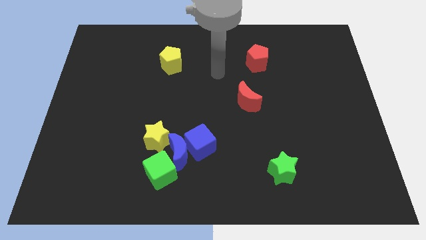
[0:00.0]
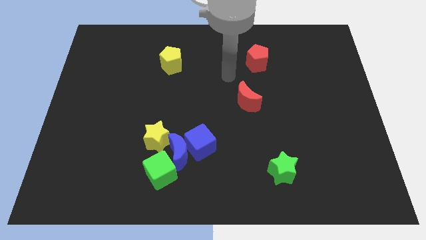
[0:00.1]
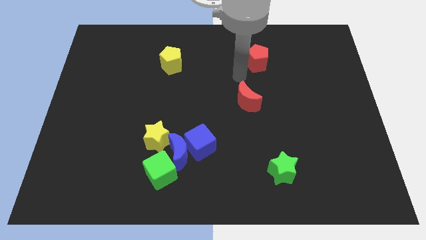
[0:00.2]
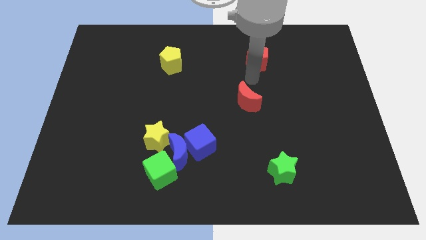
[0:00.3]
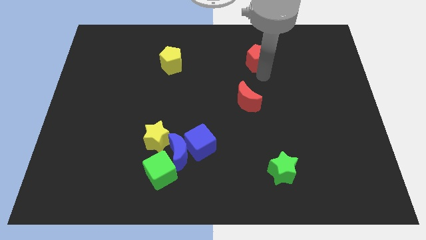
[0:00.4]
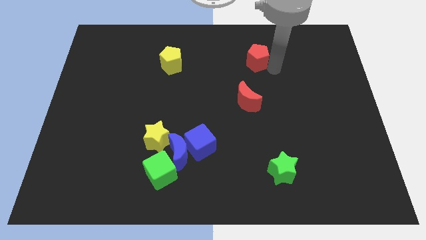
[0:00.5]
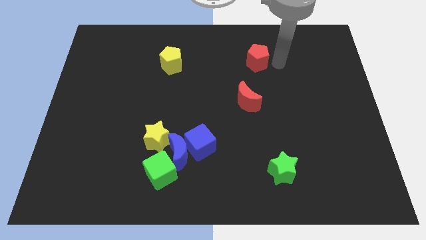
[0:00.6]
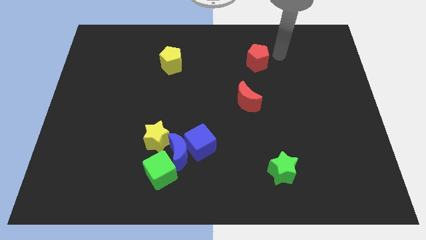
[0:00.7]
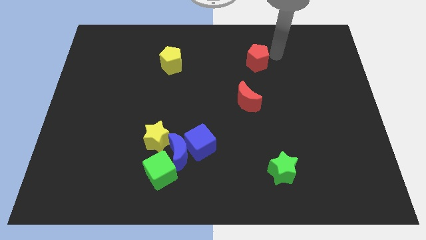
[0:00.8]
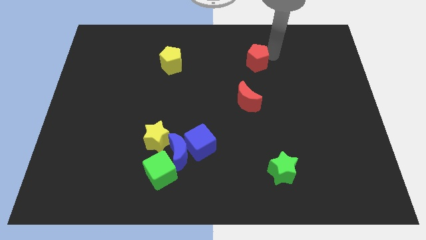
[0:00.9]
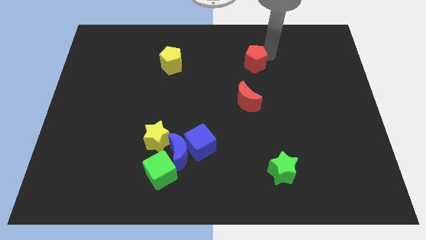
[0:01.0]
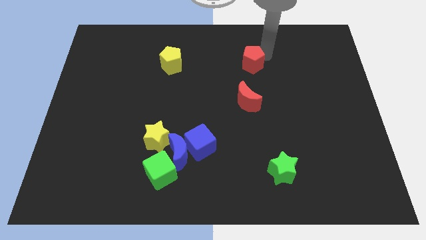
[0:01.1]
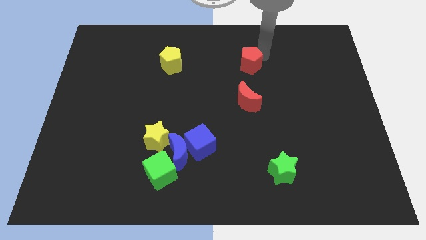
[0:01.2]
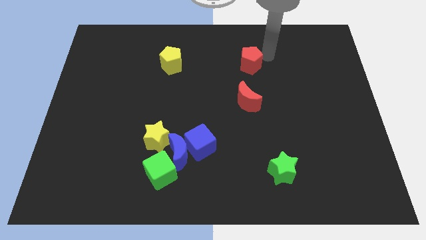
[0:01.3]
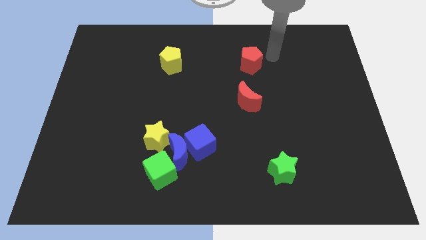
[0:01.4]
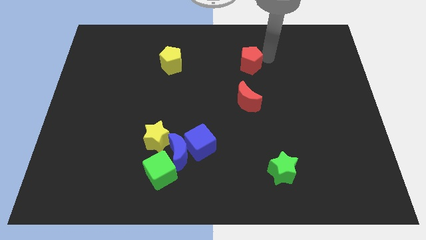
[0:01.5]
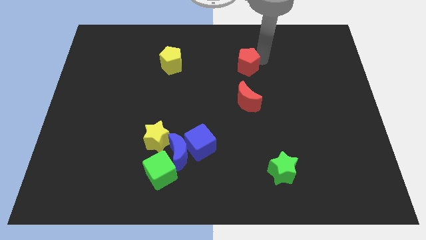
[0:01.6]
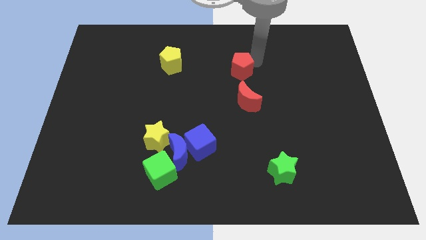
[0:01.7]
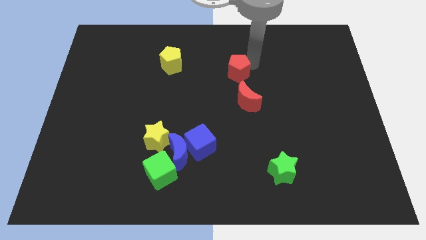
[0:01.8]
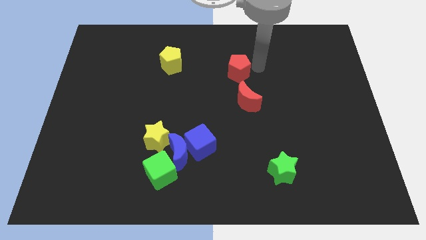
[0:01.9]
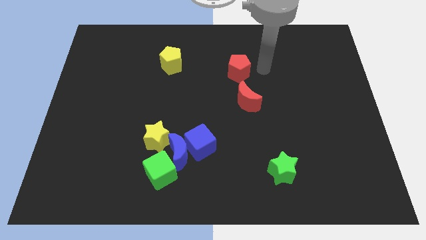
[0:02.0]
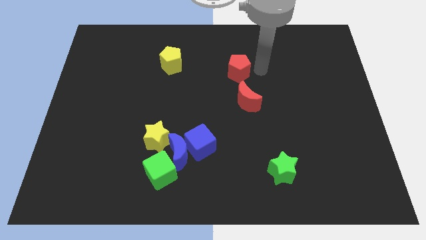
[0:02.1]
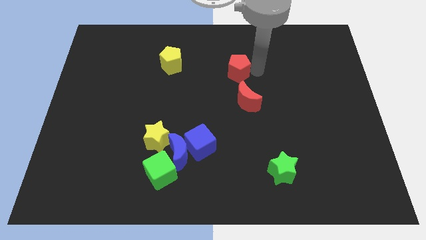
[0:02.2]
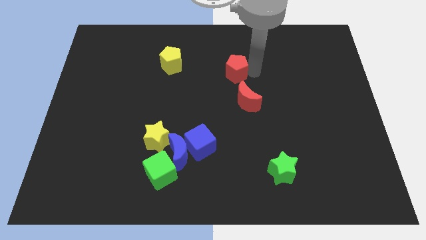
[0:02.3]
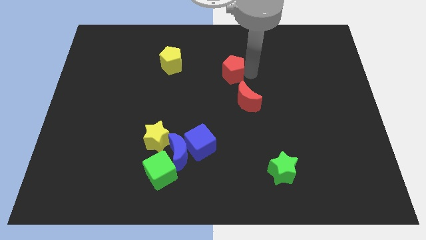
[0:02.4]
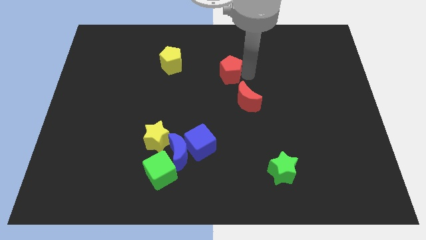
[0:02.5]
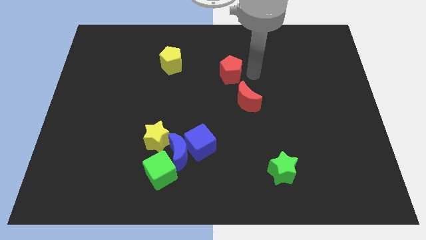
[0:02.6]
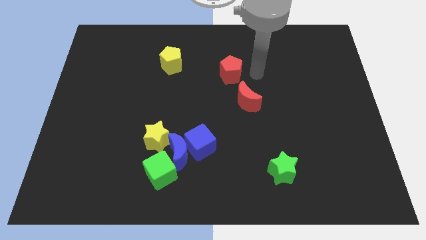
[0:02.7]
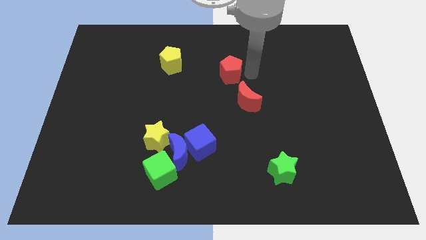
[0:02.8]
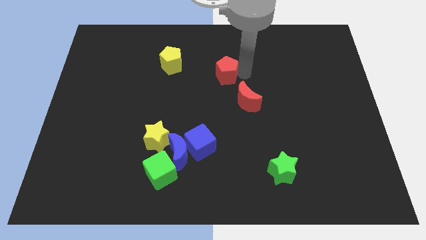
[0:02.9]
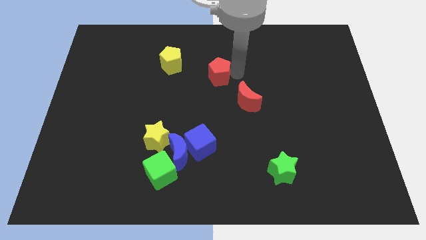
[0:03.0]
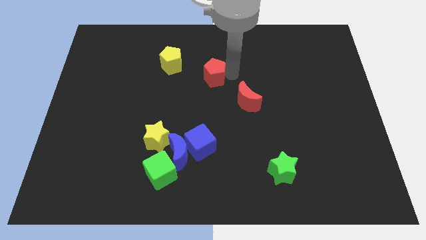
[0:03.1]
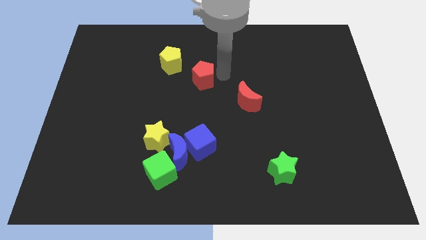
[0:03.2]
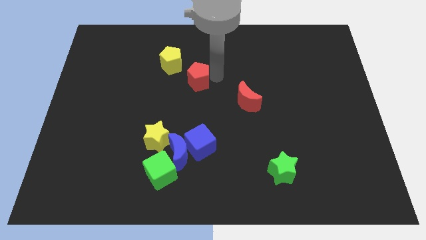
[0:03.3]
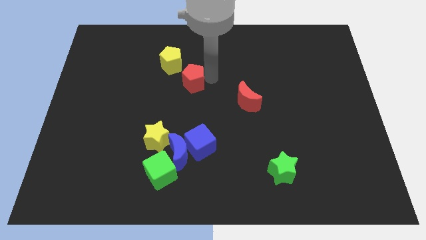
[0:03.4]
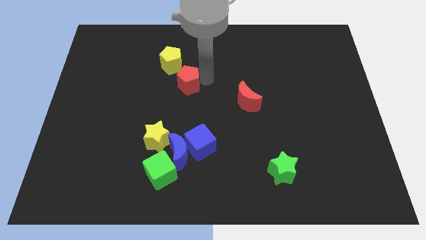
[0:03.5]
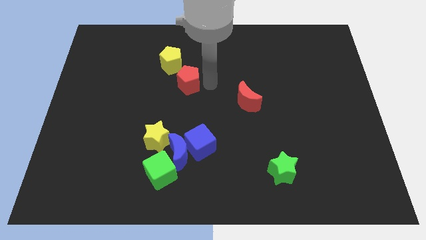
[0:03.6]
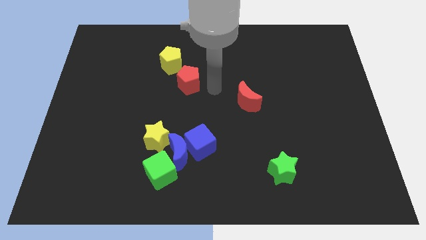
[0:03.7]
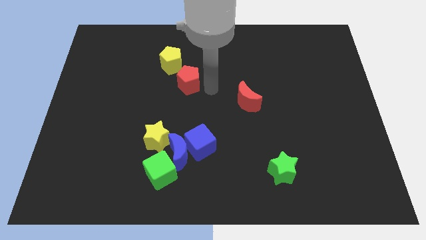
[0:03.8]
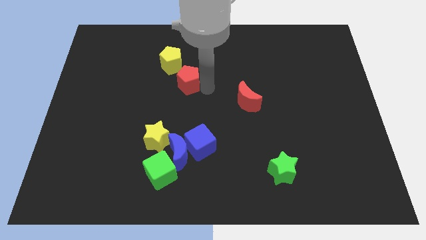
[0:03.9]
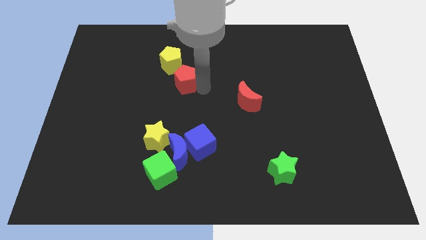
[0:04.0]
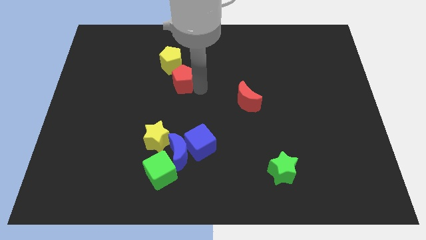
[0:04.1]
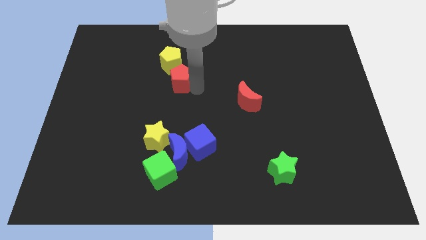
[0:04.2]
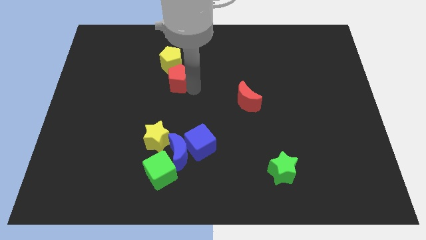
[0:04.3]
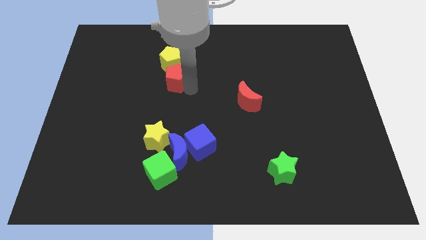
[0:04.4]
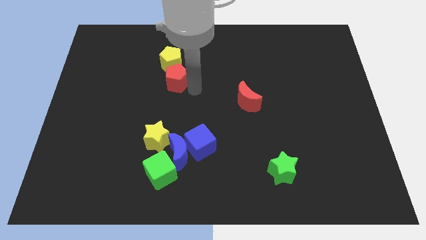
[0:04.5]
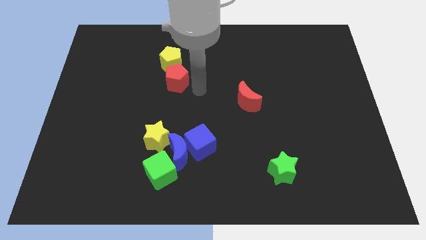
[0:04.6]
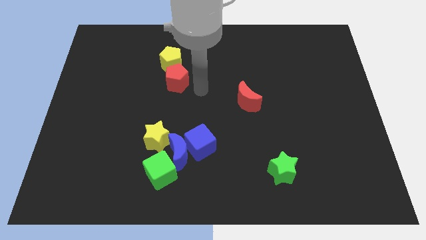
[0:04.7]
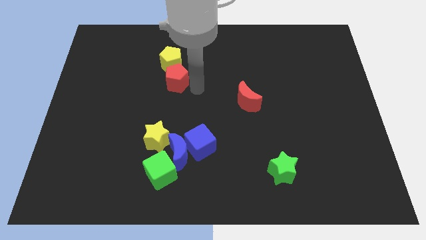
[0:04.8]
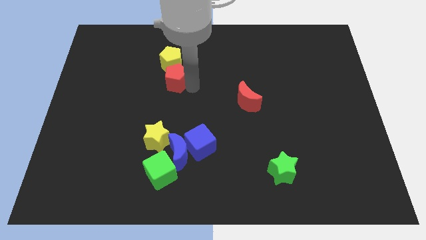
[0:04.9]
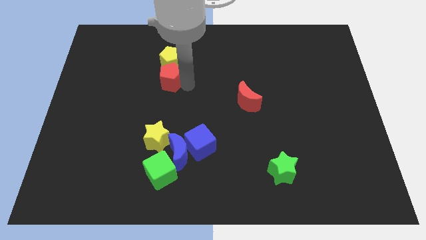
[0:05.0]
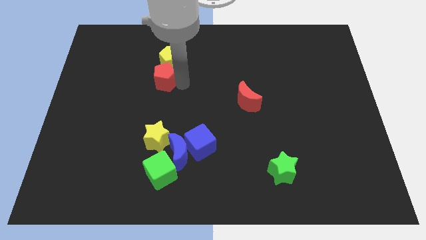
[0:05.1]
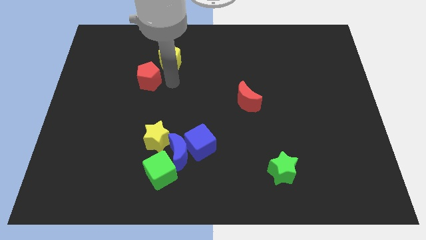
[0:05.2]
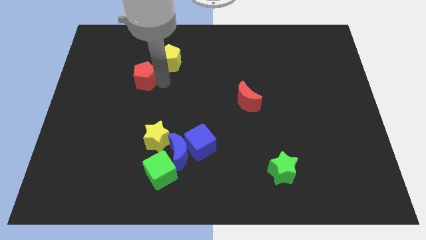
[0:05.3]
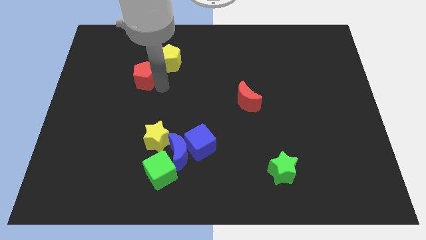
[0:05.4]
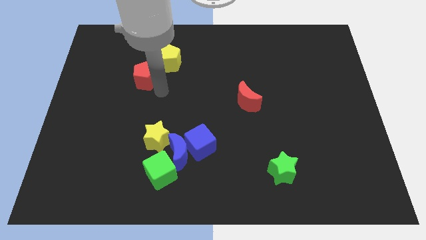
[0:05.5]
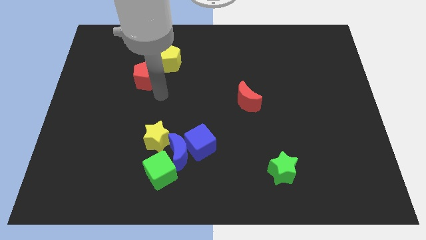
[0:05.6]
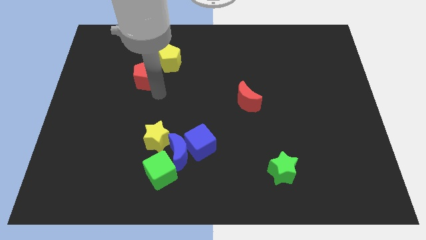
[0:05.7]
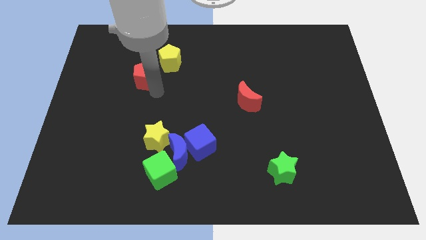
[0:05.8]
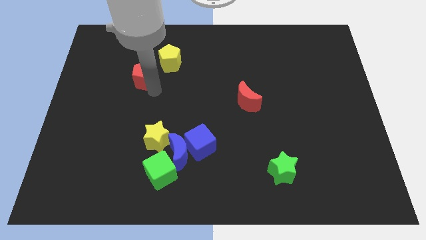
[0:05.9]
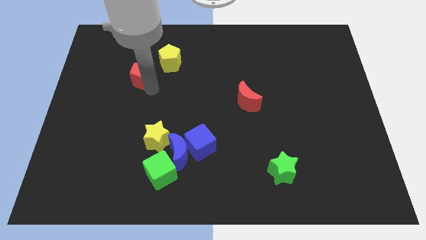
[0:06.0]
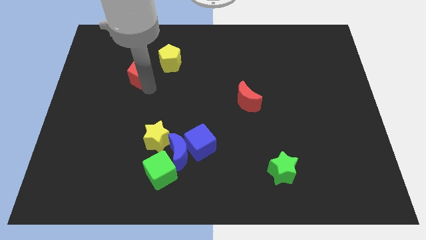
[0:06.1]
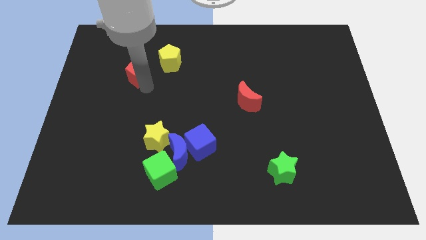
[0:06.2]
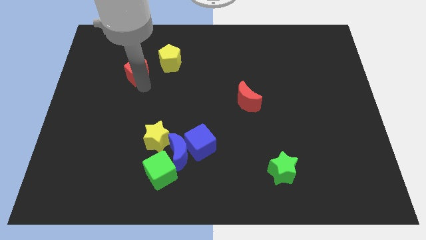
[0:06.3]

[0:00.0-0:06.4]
push the red pentagon left of the yellow pentagon
